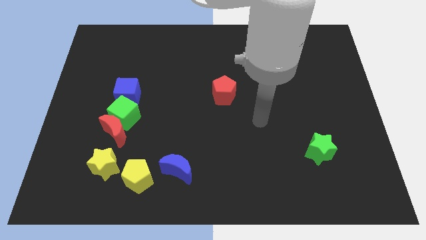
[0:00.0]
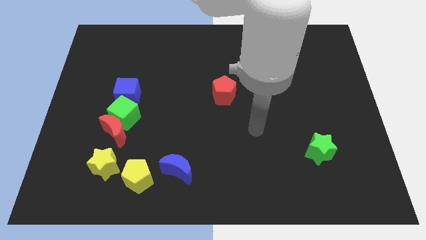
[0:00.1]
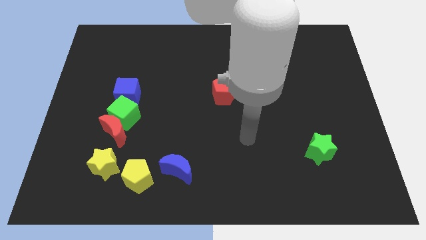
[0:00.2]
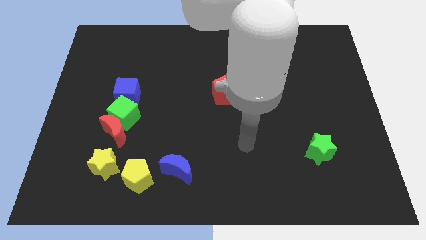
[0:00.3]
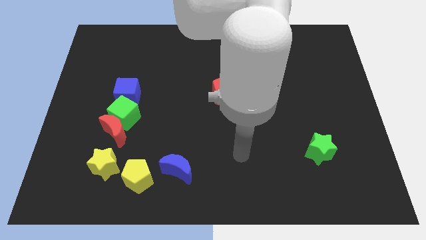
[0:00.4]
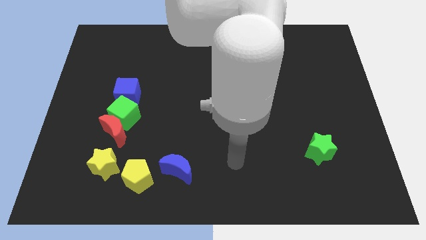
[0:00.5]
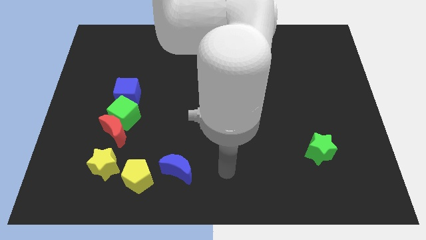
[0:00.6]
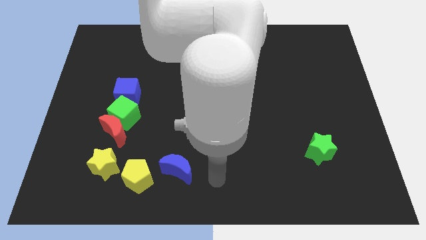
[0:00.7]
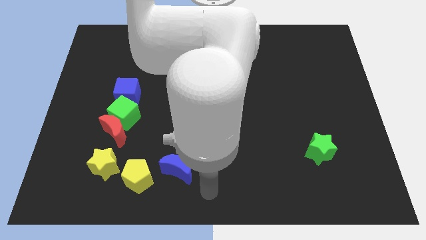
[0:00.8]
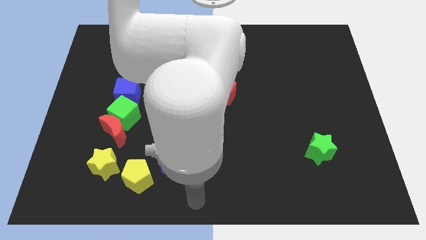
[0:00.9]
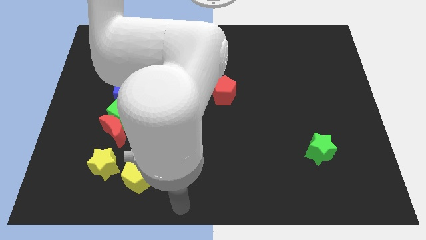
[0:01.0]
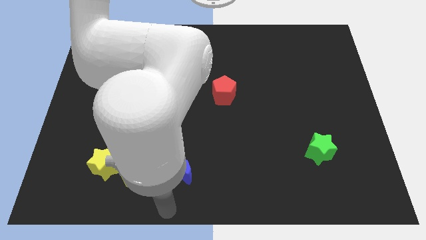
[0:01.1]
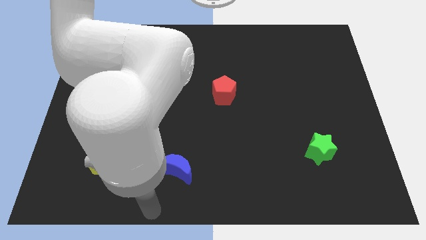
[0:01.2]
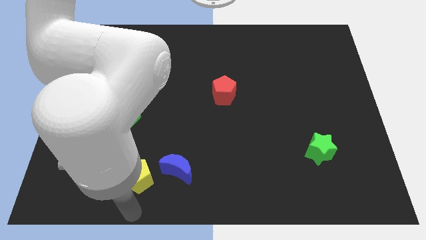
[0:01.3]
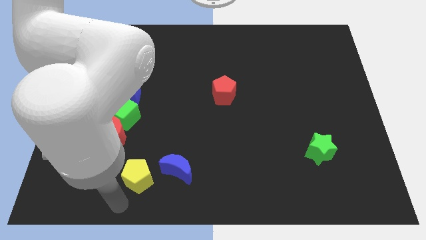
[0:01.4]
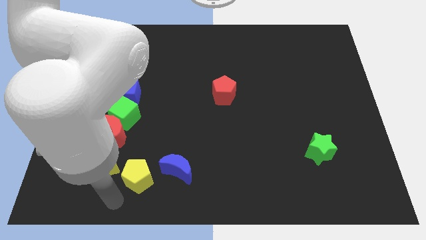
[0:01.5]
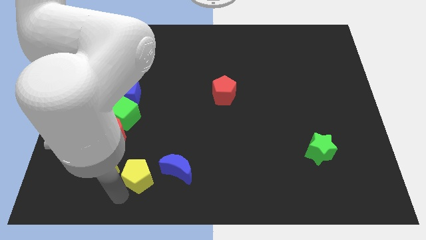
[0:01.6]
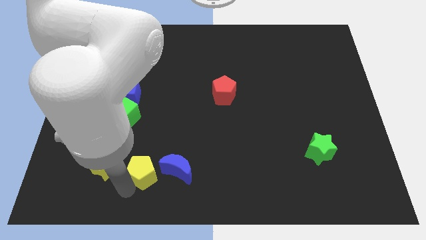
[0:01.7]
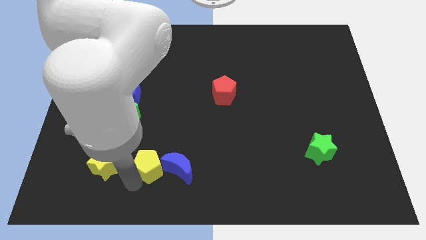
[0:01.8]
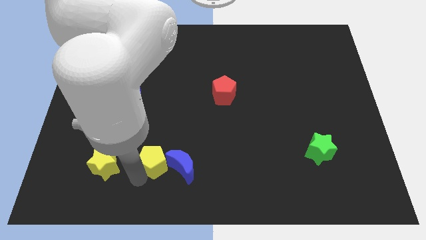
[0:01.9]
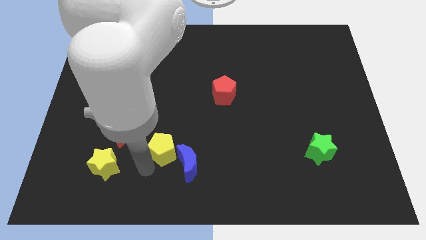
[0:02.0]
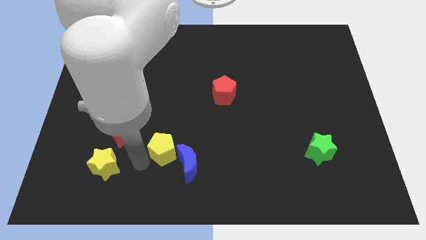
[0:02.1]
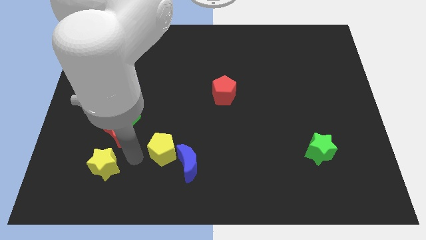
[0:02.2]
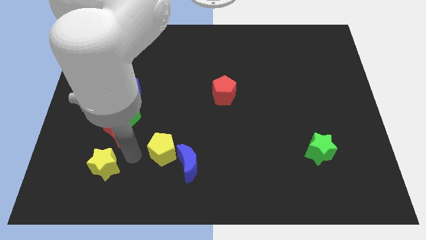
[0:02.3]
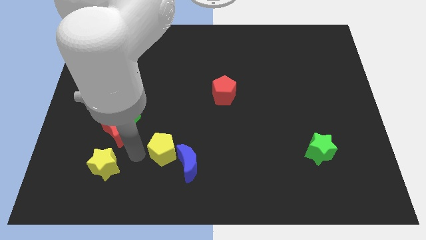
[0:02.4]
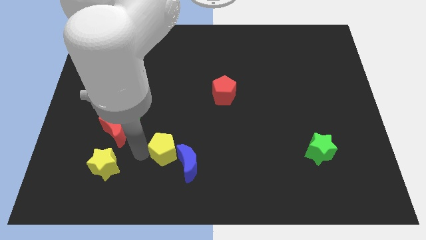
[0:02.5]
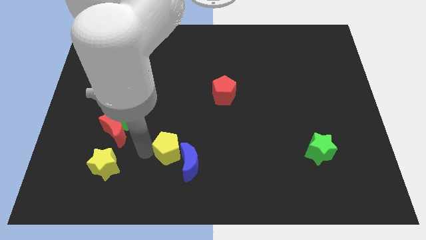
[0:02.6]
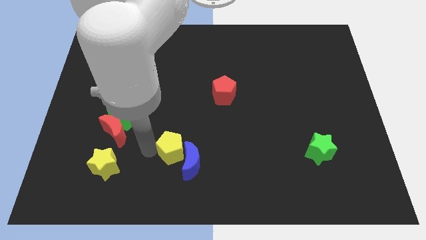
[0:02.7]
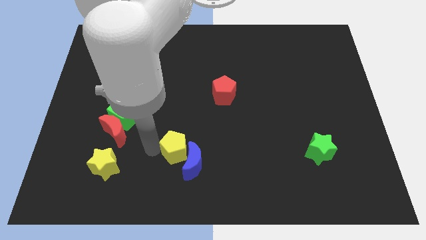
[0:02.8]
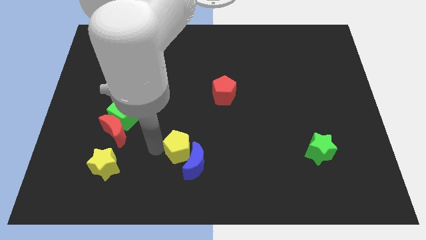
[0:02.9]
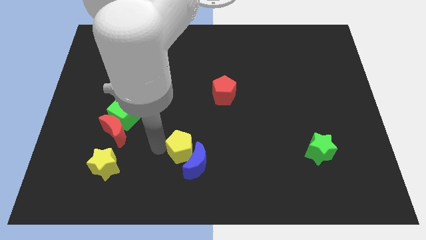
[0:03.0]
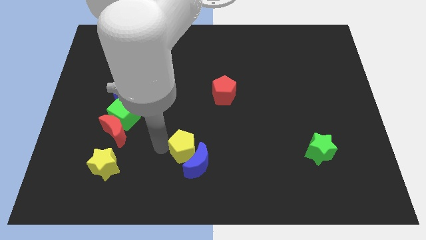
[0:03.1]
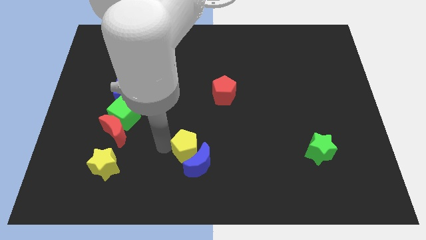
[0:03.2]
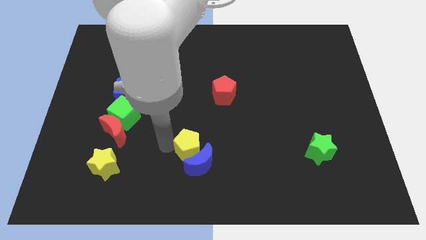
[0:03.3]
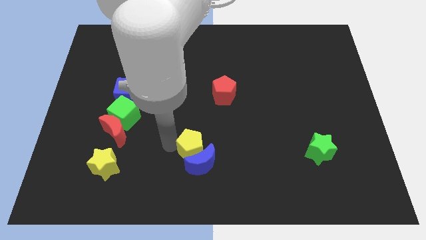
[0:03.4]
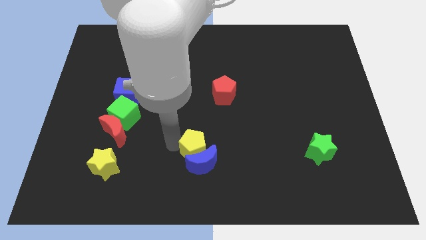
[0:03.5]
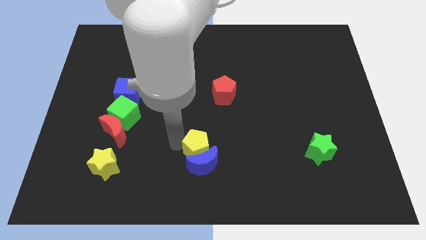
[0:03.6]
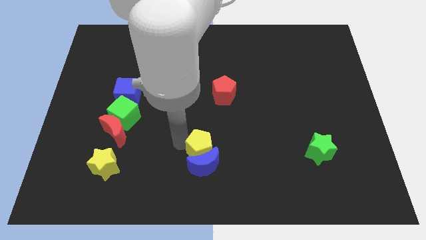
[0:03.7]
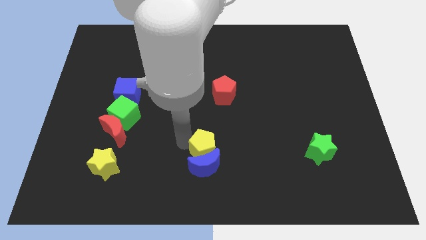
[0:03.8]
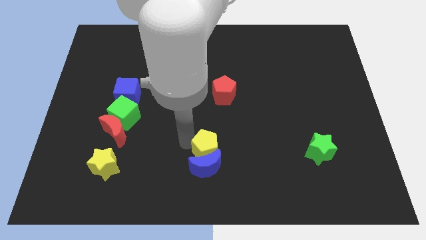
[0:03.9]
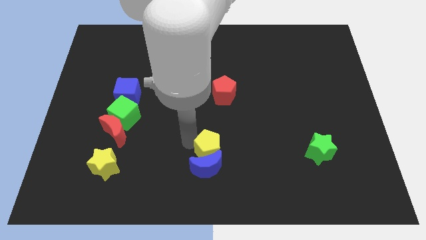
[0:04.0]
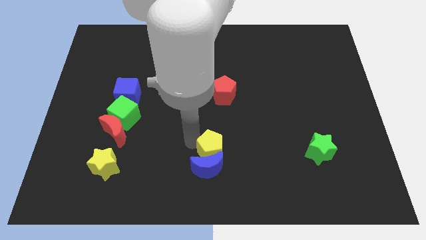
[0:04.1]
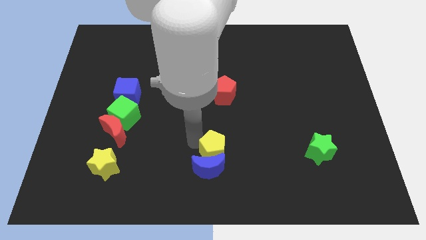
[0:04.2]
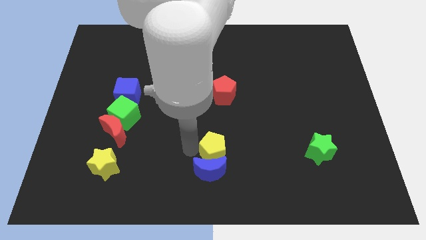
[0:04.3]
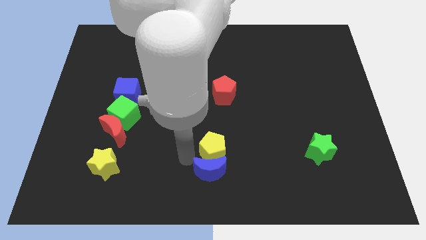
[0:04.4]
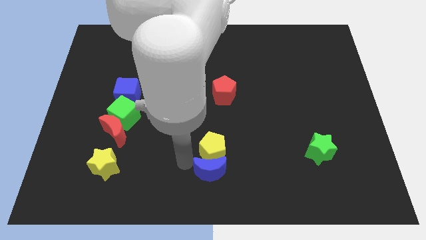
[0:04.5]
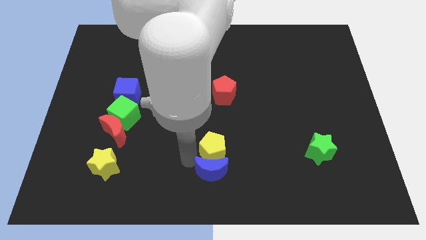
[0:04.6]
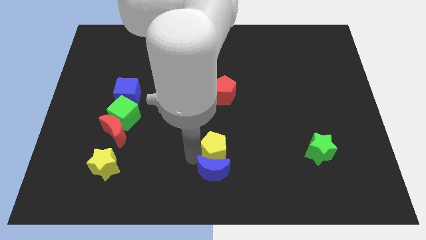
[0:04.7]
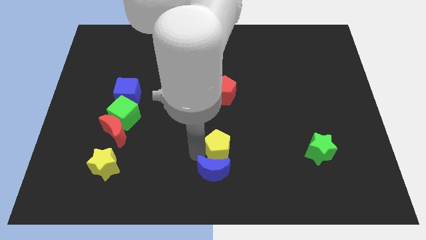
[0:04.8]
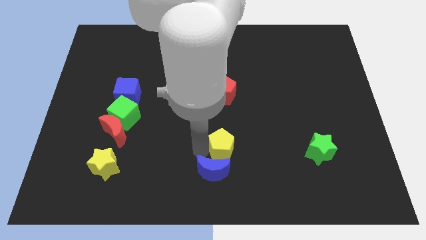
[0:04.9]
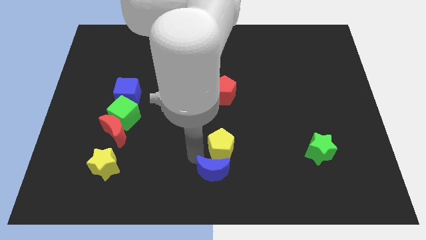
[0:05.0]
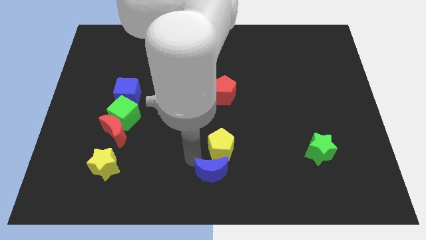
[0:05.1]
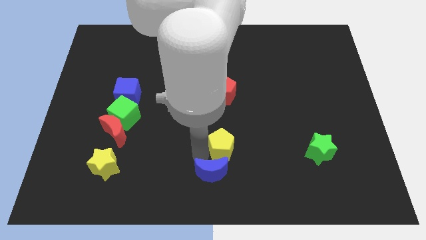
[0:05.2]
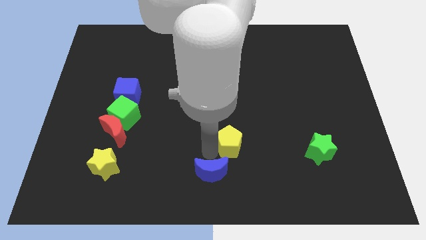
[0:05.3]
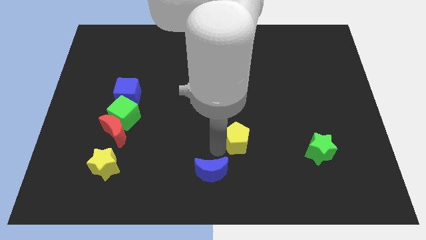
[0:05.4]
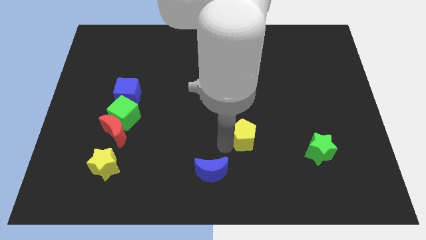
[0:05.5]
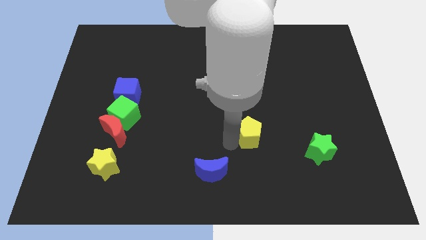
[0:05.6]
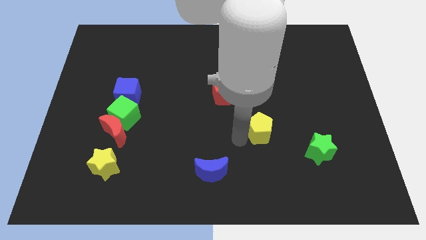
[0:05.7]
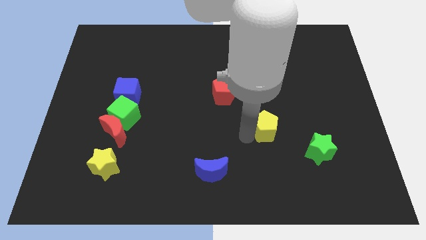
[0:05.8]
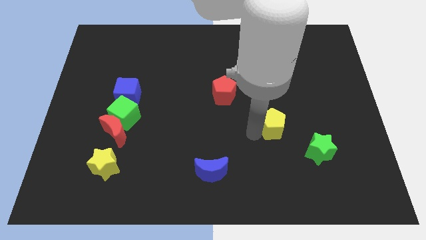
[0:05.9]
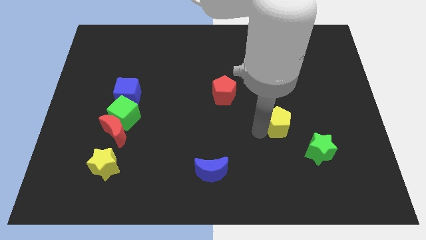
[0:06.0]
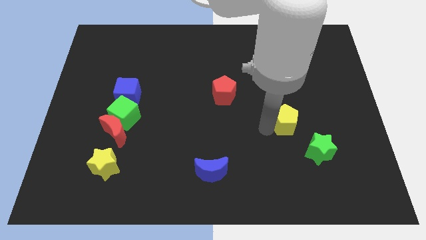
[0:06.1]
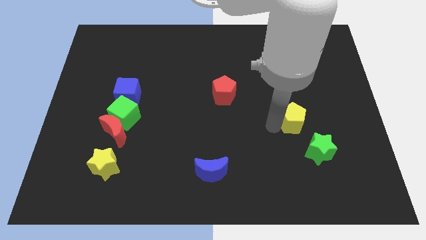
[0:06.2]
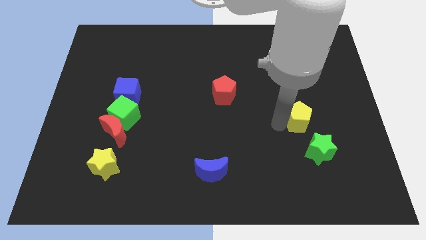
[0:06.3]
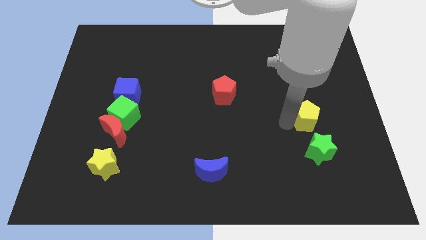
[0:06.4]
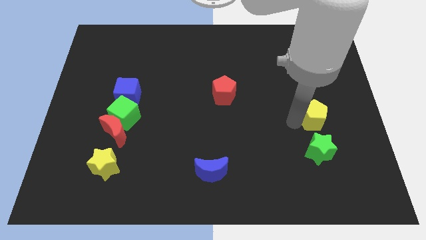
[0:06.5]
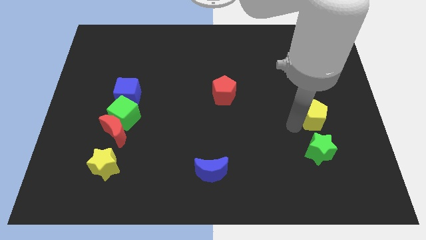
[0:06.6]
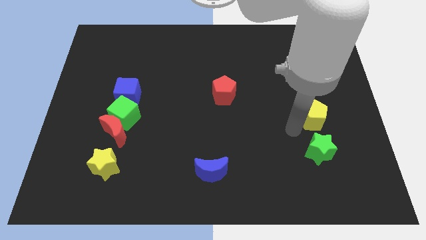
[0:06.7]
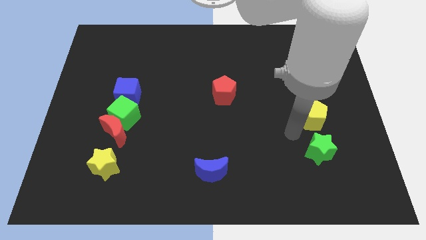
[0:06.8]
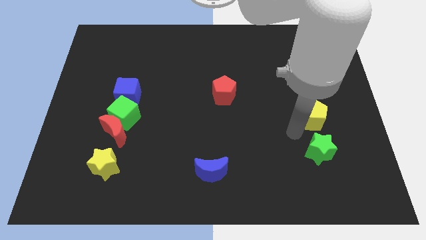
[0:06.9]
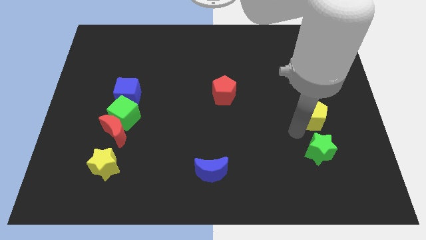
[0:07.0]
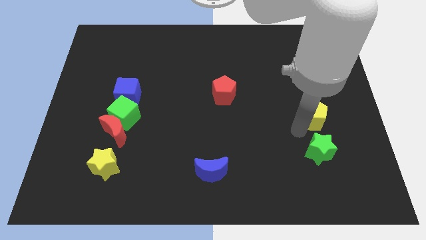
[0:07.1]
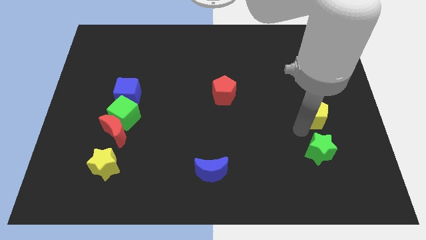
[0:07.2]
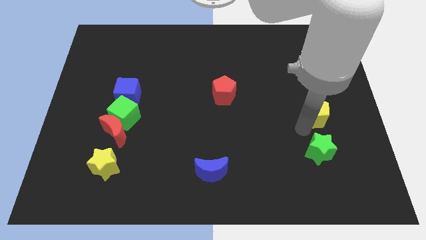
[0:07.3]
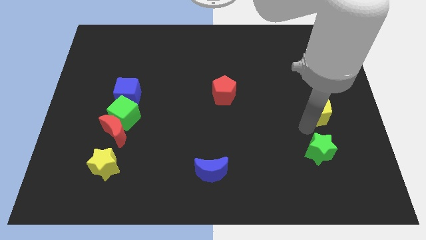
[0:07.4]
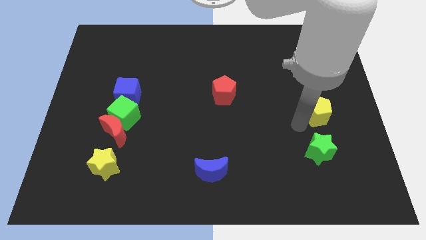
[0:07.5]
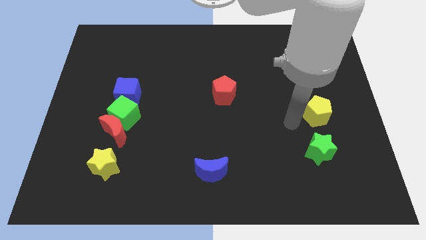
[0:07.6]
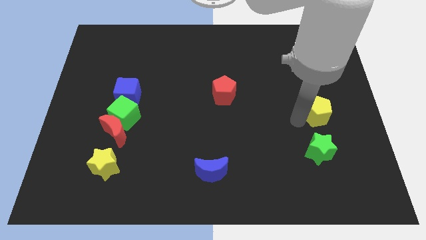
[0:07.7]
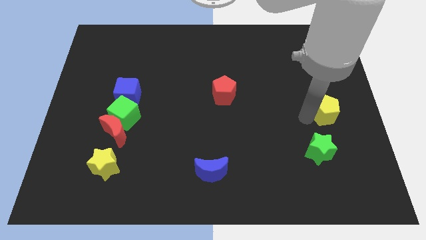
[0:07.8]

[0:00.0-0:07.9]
slide the yellow pentagon to the right side of the board
